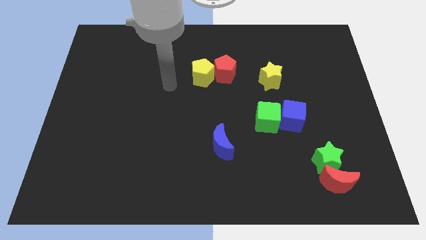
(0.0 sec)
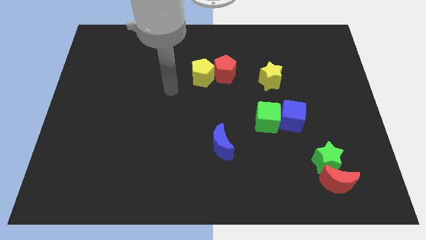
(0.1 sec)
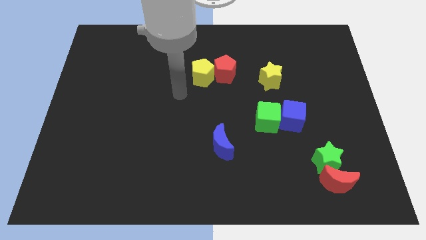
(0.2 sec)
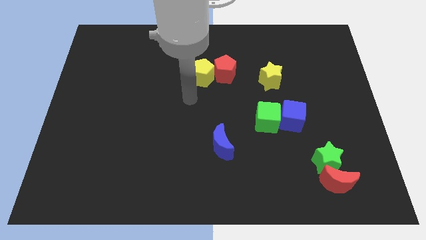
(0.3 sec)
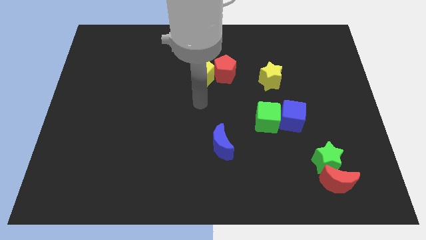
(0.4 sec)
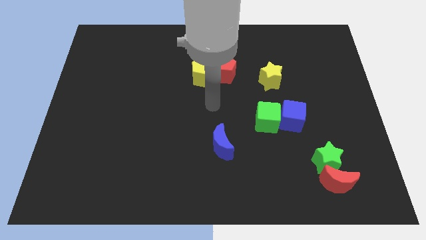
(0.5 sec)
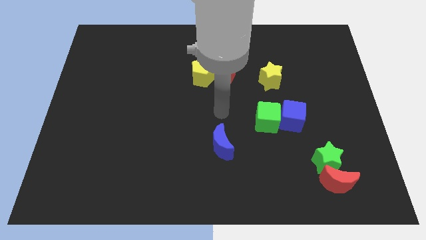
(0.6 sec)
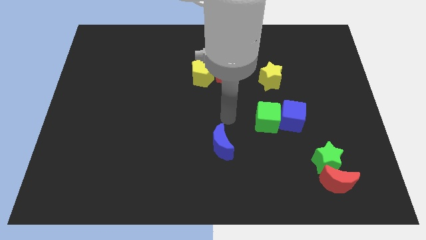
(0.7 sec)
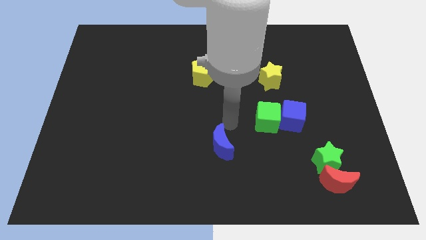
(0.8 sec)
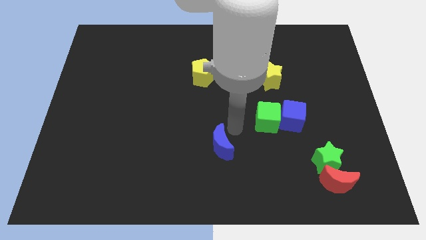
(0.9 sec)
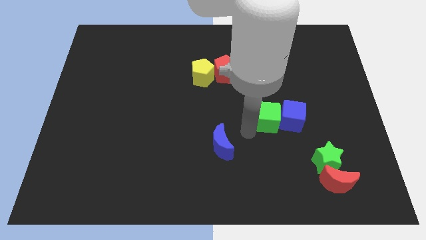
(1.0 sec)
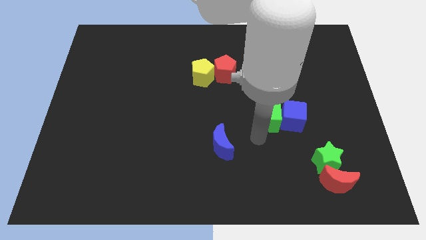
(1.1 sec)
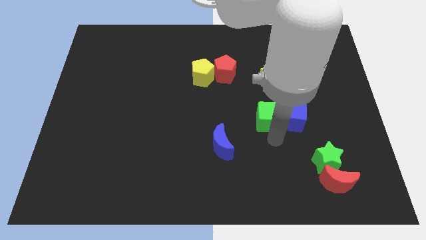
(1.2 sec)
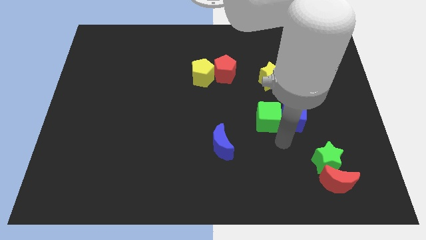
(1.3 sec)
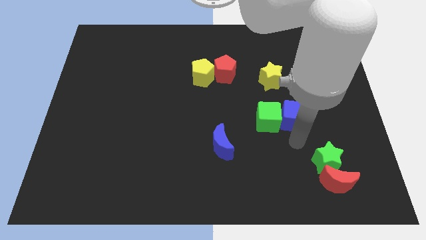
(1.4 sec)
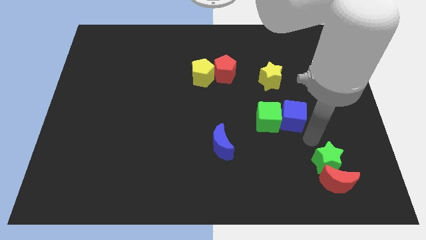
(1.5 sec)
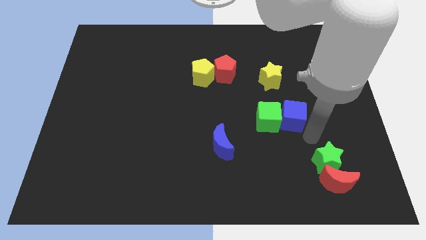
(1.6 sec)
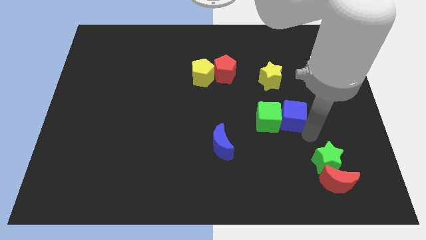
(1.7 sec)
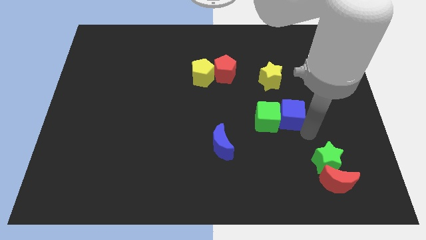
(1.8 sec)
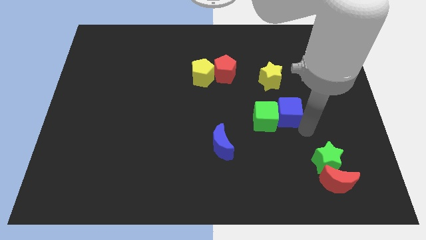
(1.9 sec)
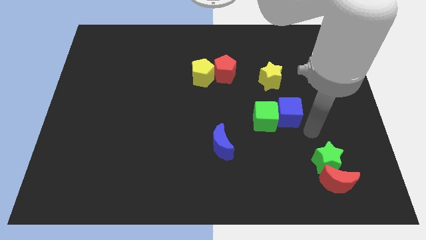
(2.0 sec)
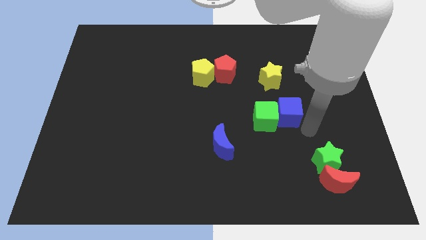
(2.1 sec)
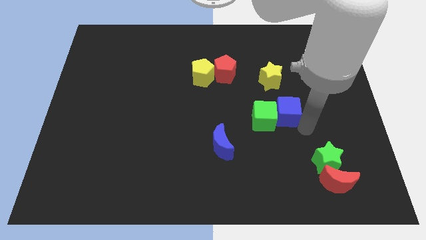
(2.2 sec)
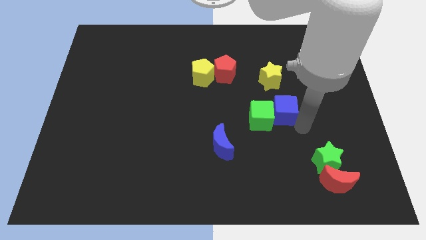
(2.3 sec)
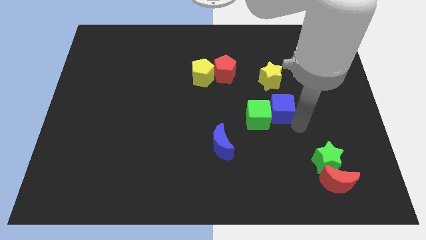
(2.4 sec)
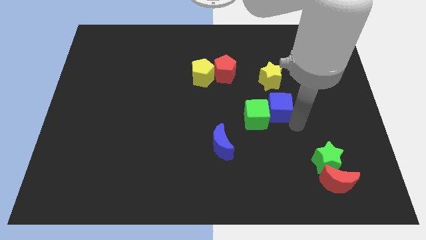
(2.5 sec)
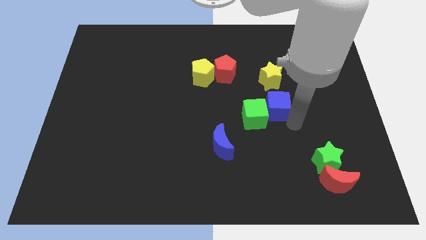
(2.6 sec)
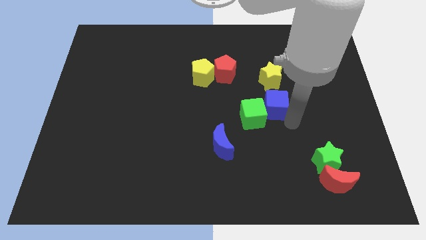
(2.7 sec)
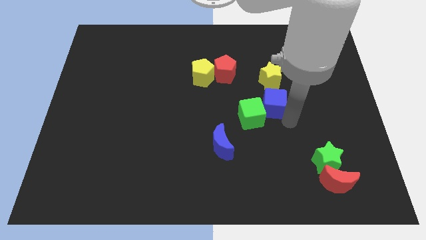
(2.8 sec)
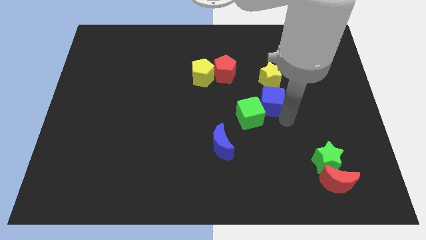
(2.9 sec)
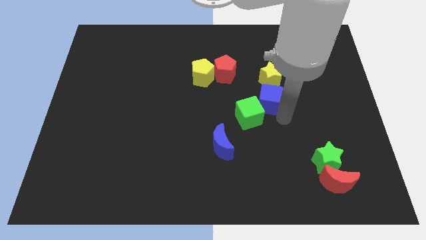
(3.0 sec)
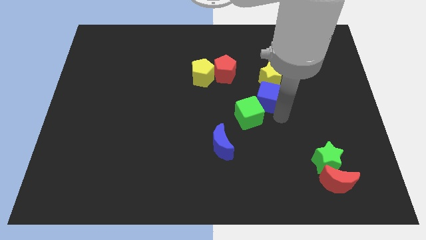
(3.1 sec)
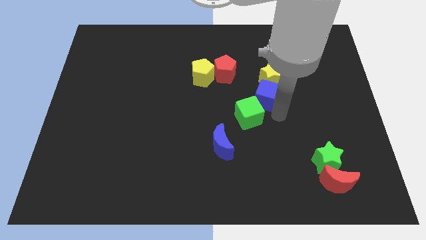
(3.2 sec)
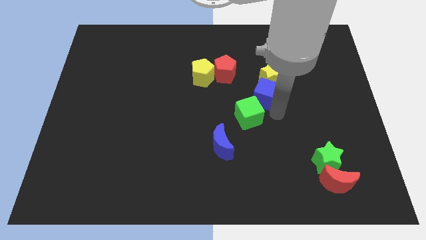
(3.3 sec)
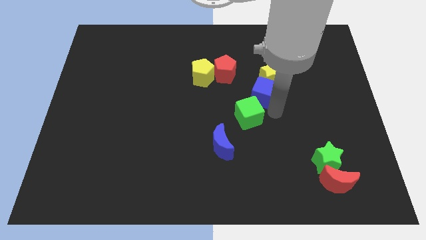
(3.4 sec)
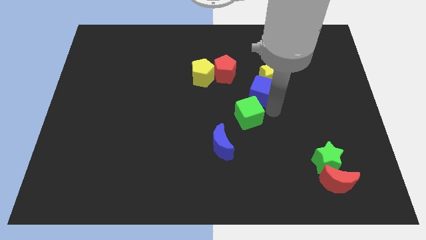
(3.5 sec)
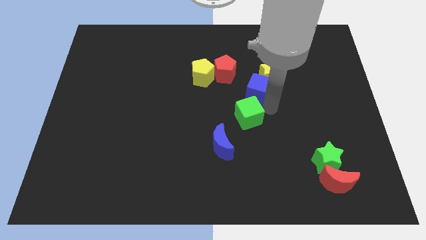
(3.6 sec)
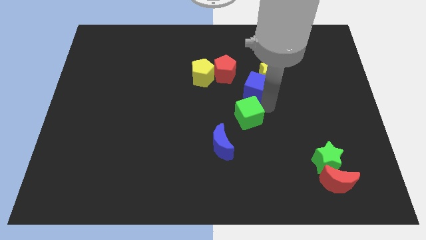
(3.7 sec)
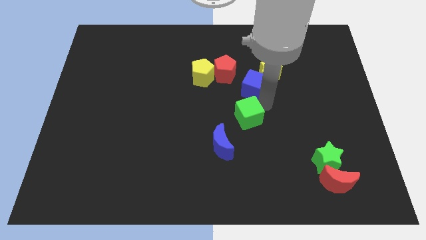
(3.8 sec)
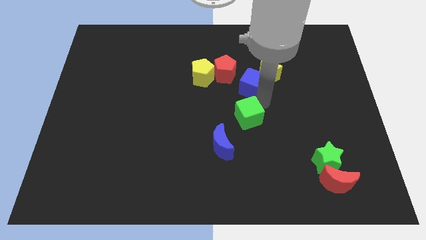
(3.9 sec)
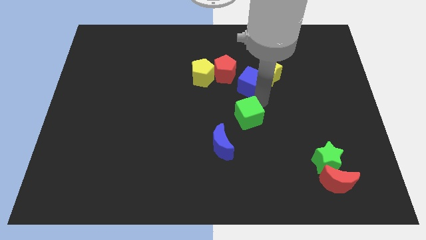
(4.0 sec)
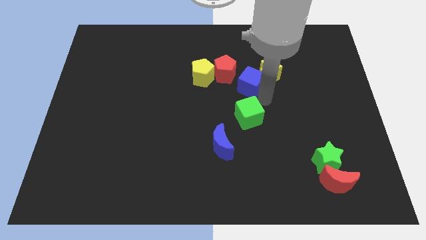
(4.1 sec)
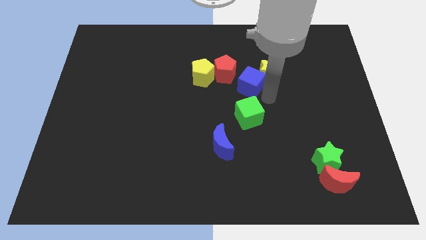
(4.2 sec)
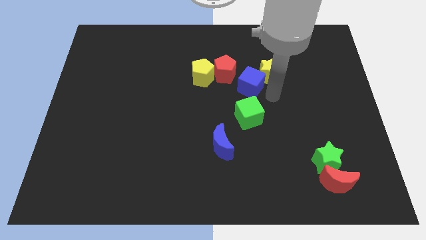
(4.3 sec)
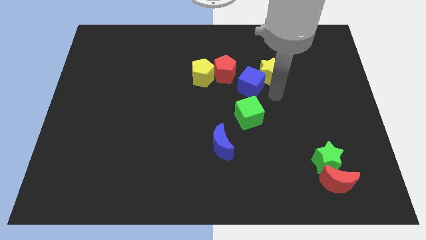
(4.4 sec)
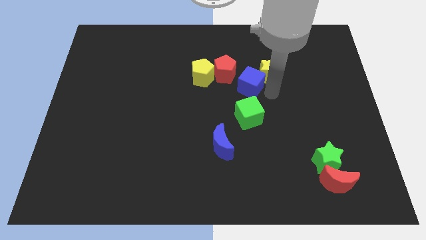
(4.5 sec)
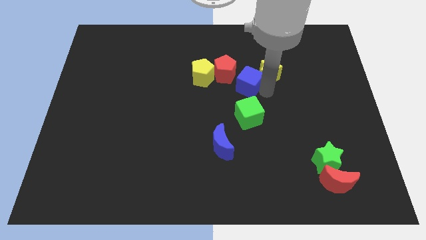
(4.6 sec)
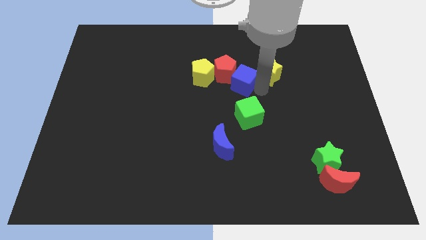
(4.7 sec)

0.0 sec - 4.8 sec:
put the blue cube to the red pentagon

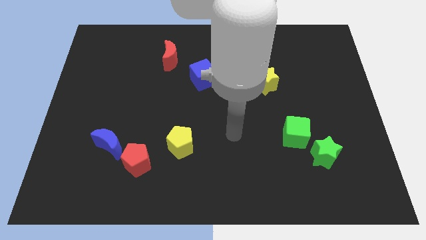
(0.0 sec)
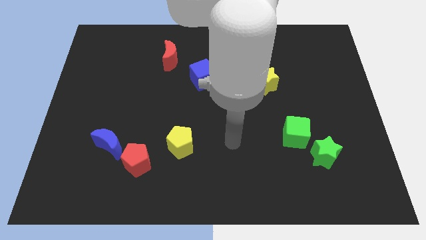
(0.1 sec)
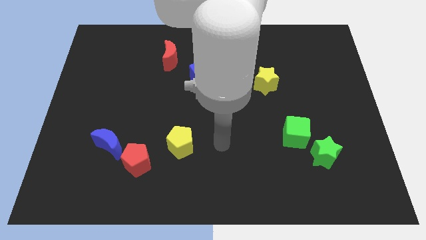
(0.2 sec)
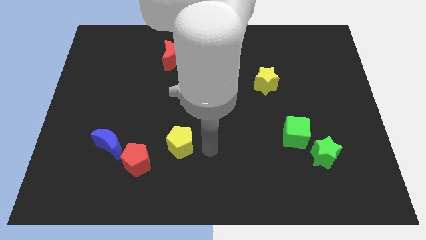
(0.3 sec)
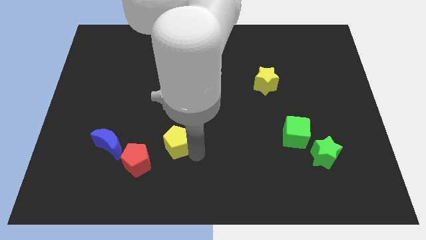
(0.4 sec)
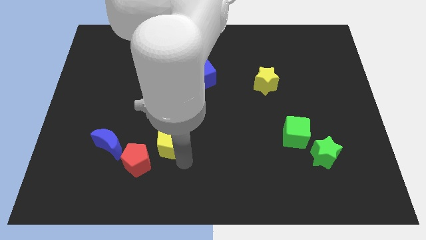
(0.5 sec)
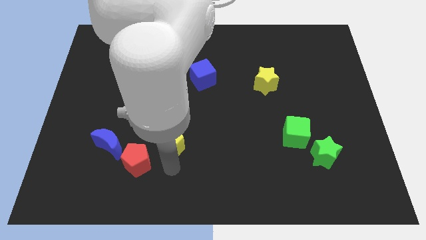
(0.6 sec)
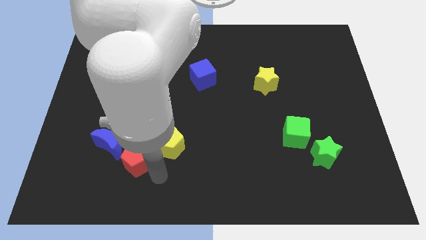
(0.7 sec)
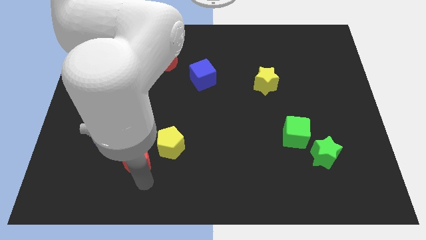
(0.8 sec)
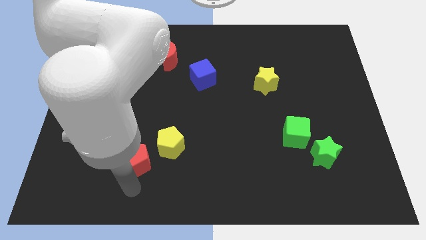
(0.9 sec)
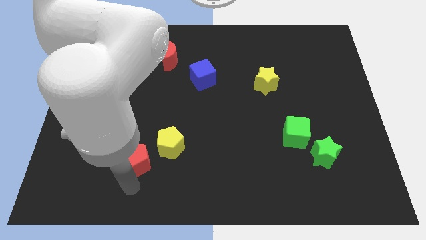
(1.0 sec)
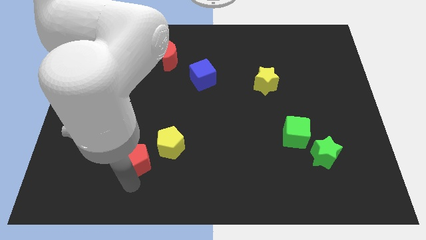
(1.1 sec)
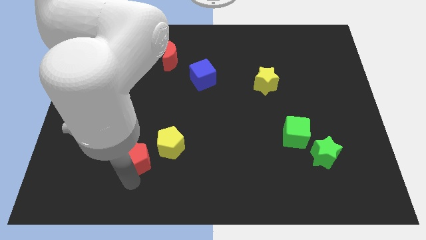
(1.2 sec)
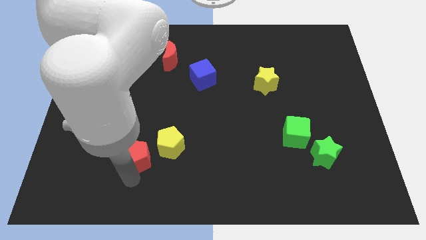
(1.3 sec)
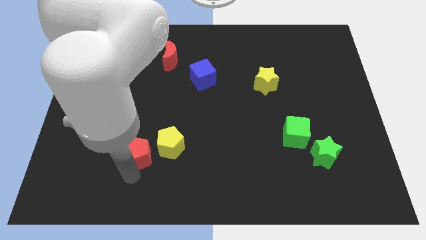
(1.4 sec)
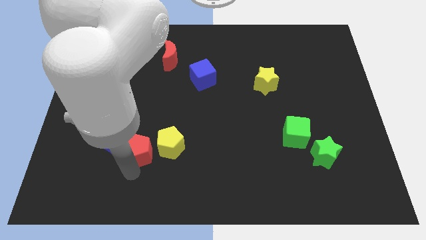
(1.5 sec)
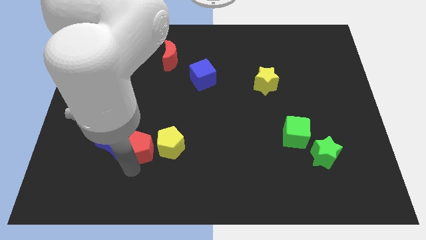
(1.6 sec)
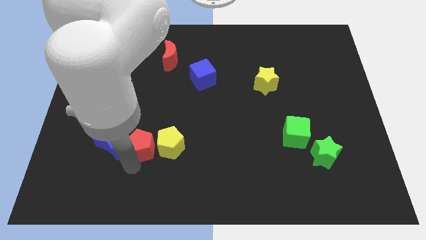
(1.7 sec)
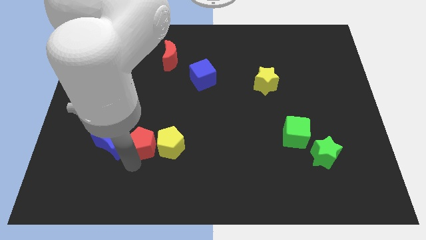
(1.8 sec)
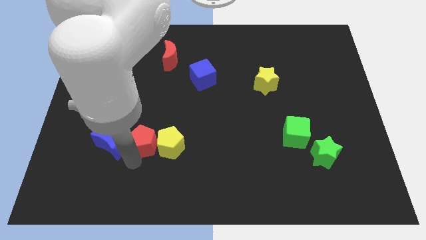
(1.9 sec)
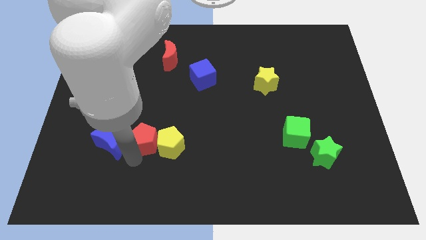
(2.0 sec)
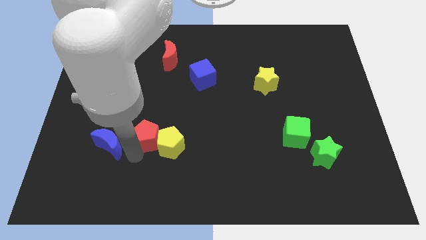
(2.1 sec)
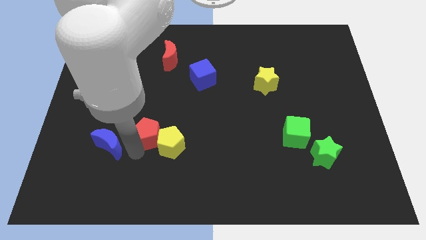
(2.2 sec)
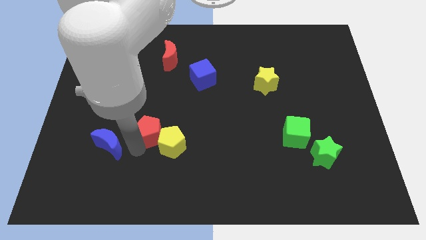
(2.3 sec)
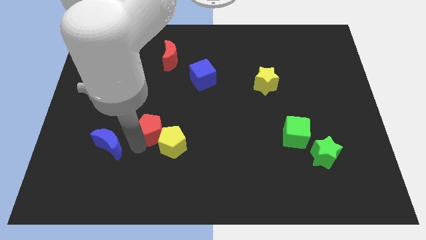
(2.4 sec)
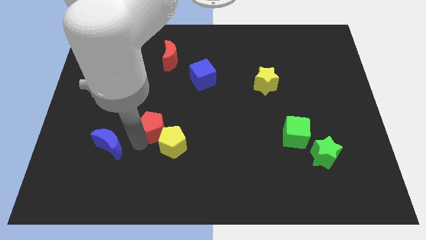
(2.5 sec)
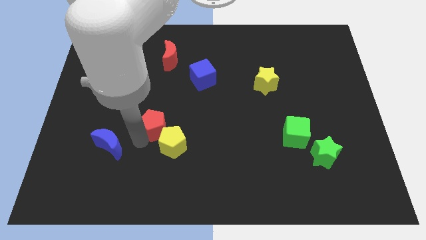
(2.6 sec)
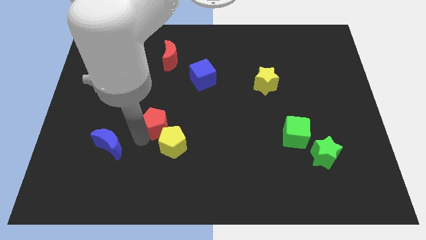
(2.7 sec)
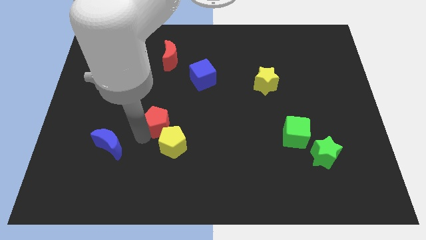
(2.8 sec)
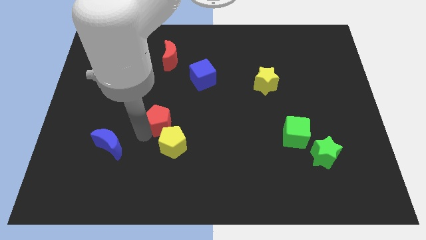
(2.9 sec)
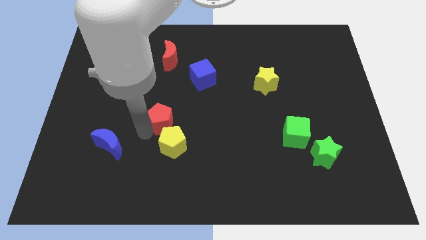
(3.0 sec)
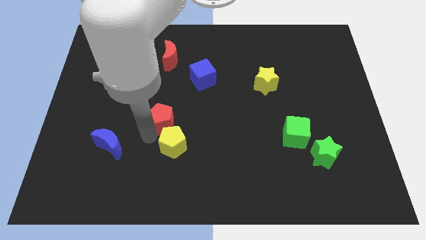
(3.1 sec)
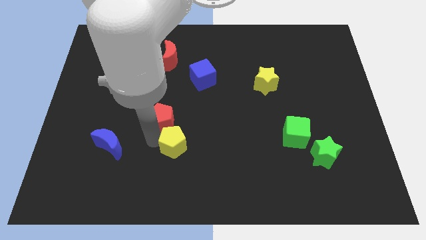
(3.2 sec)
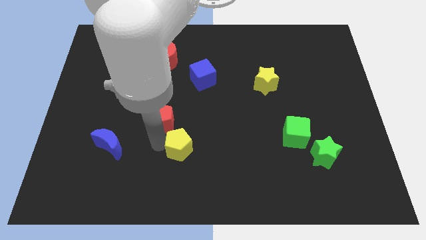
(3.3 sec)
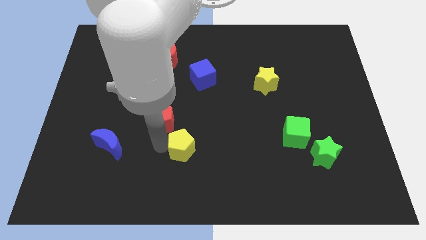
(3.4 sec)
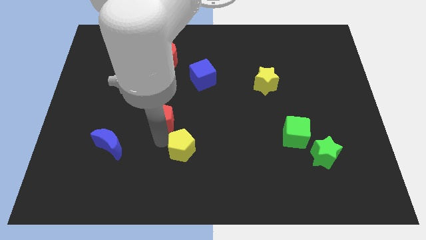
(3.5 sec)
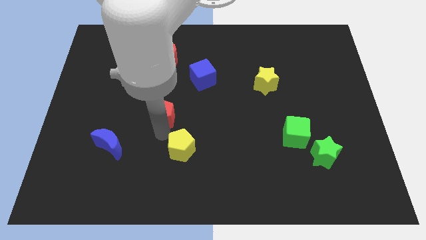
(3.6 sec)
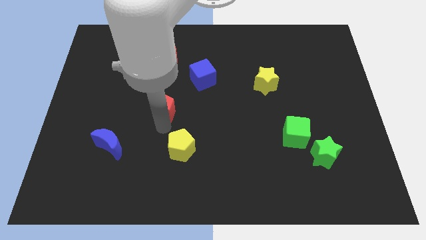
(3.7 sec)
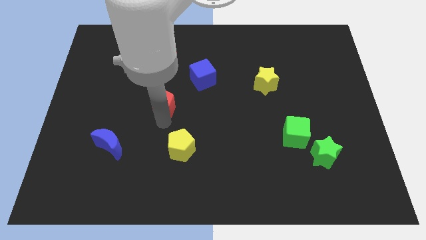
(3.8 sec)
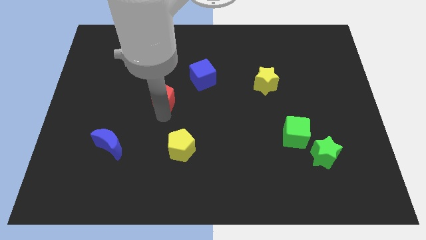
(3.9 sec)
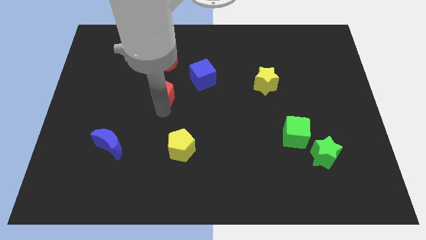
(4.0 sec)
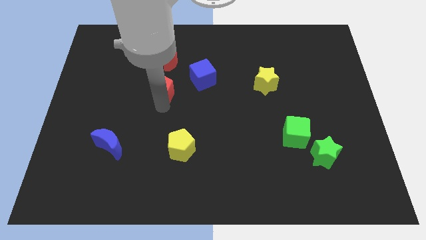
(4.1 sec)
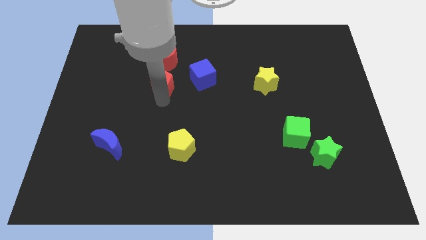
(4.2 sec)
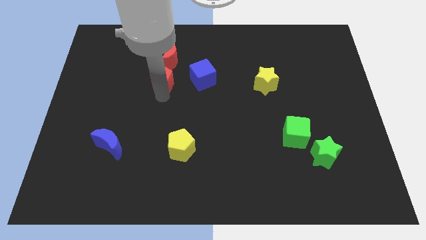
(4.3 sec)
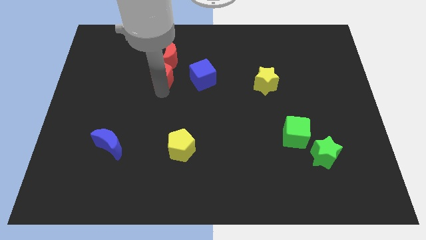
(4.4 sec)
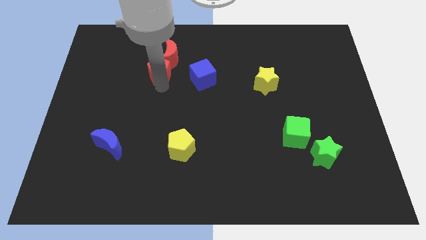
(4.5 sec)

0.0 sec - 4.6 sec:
slide the red pentagon towards the red moon
